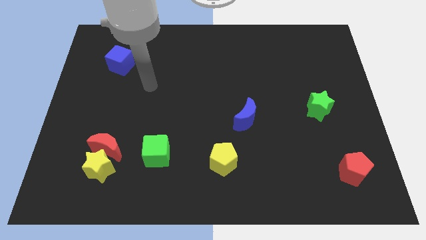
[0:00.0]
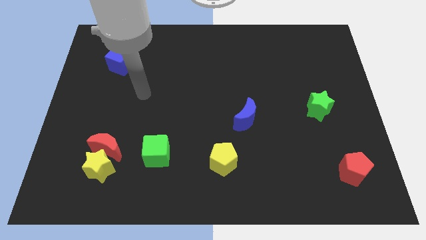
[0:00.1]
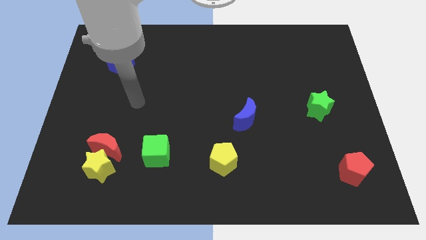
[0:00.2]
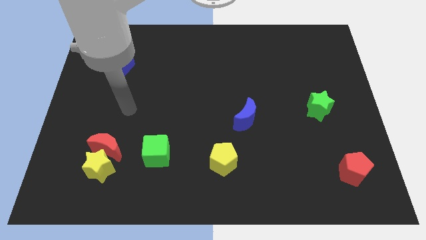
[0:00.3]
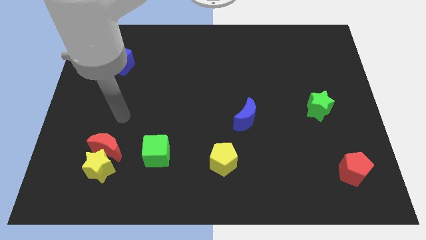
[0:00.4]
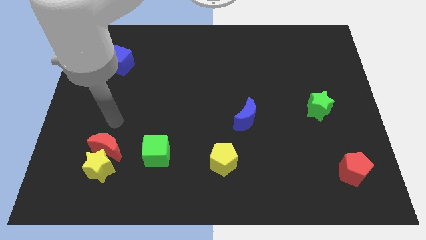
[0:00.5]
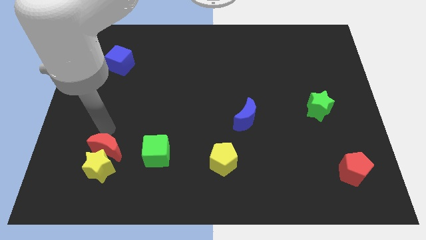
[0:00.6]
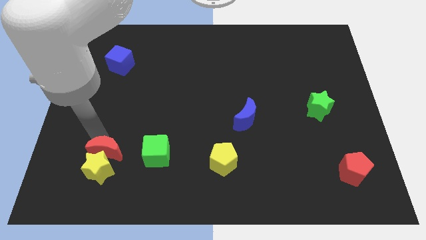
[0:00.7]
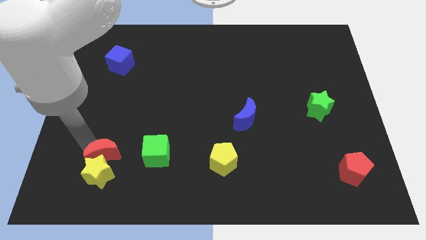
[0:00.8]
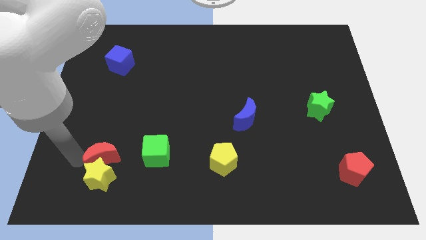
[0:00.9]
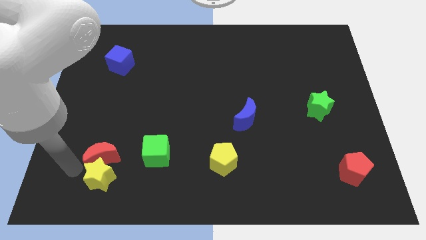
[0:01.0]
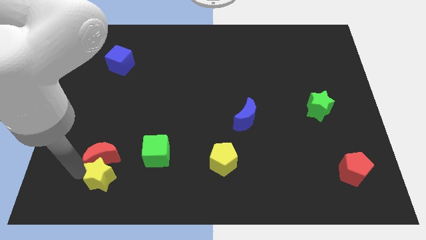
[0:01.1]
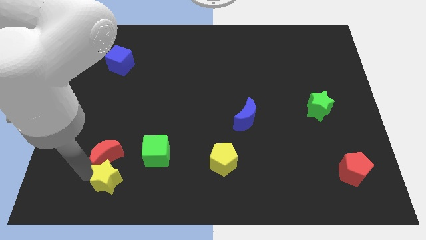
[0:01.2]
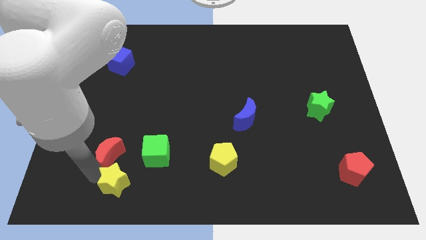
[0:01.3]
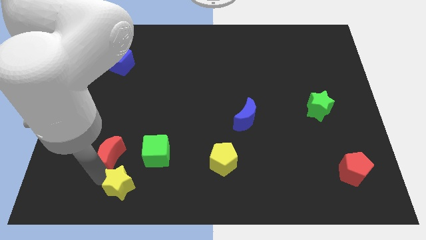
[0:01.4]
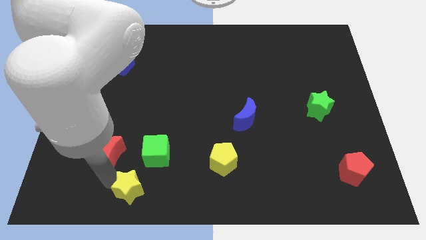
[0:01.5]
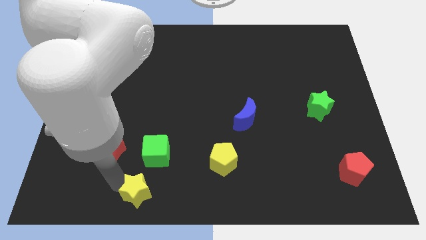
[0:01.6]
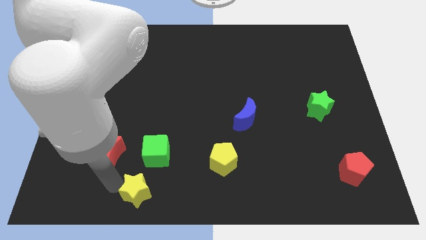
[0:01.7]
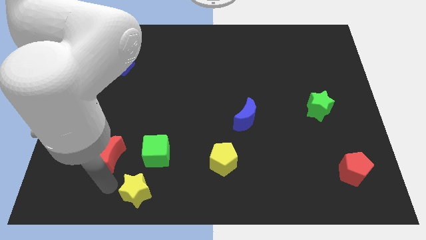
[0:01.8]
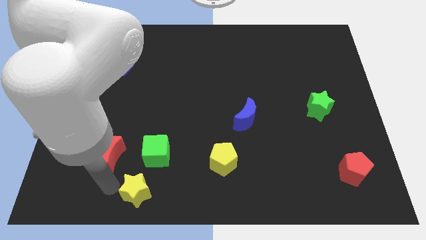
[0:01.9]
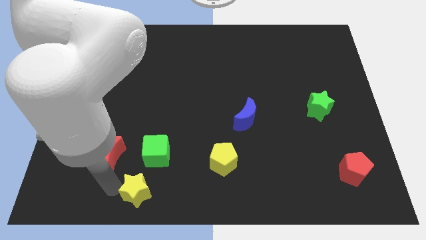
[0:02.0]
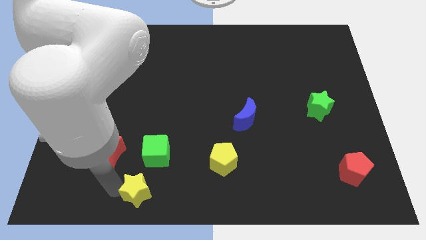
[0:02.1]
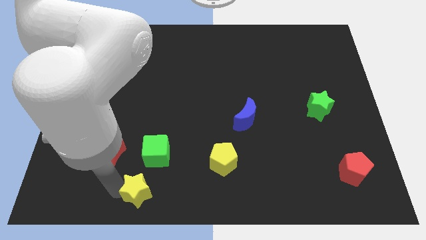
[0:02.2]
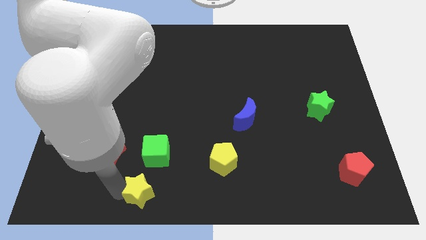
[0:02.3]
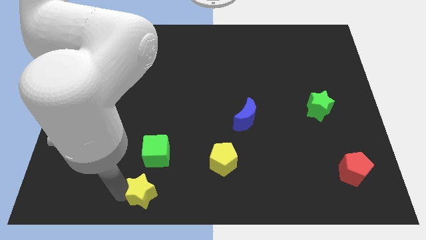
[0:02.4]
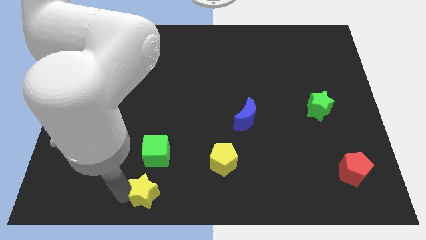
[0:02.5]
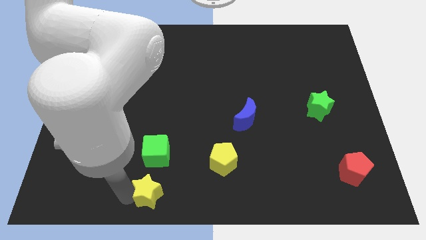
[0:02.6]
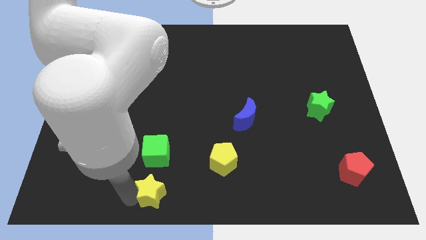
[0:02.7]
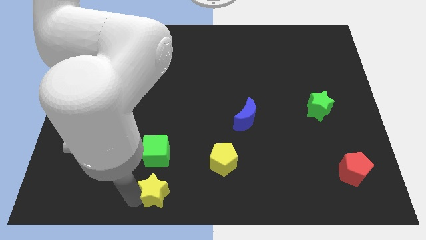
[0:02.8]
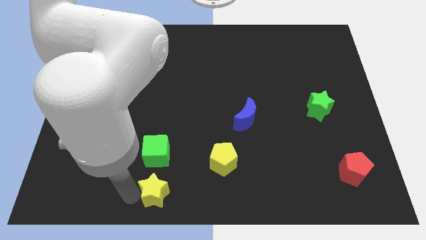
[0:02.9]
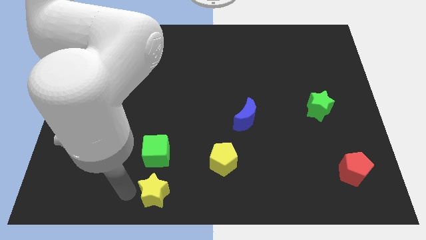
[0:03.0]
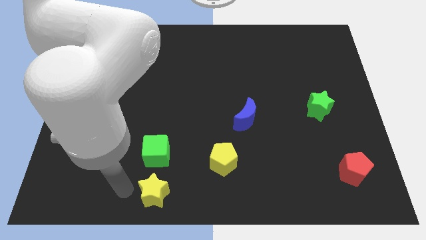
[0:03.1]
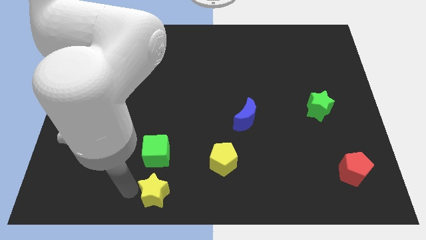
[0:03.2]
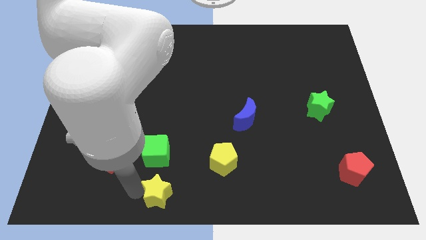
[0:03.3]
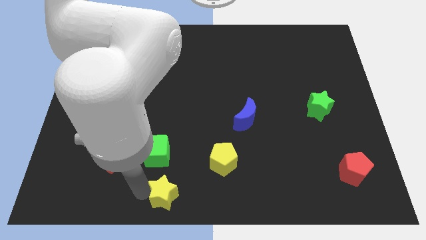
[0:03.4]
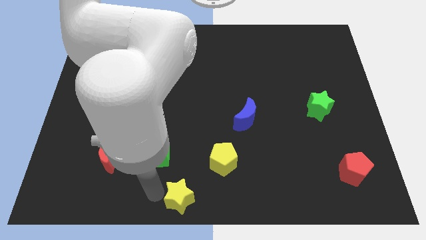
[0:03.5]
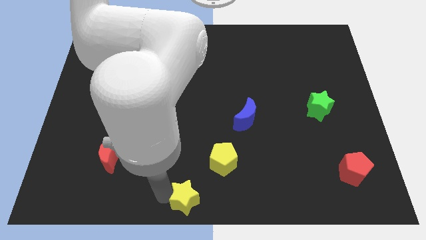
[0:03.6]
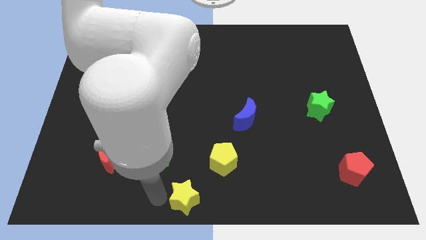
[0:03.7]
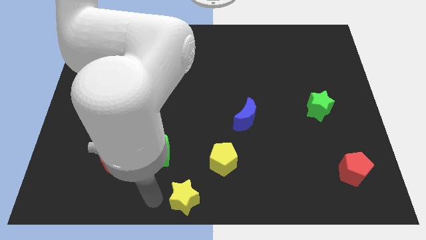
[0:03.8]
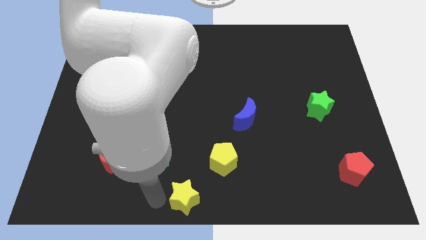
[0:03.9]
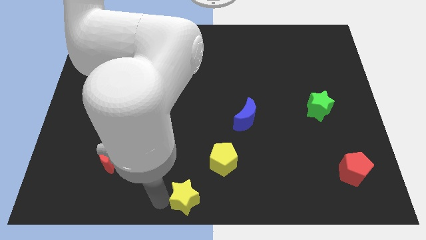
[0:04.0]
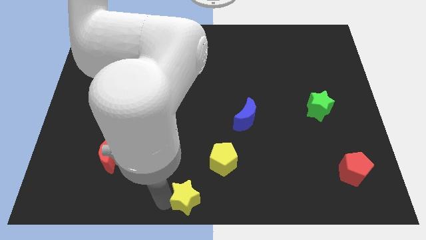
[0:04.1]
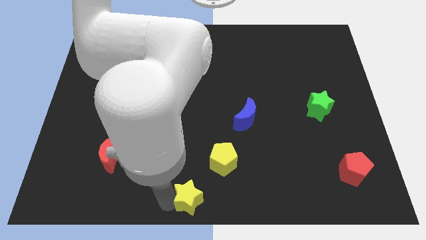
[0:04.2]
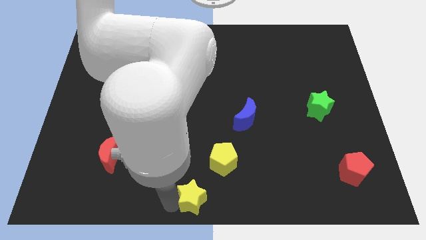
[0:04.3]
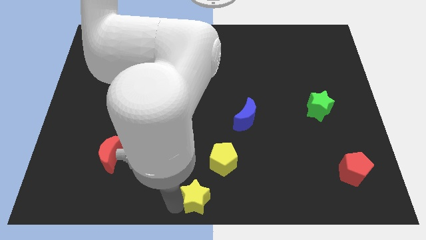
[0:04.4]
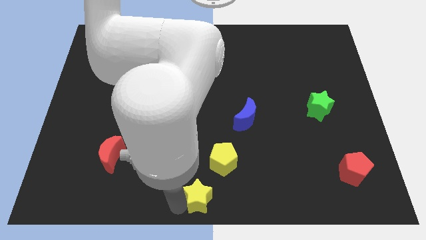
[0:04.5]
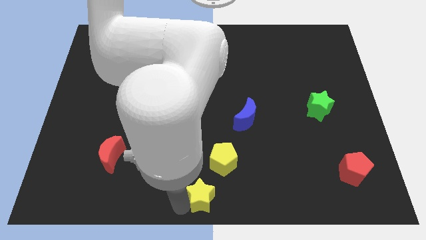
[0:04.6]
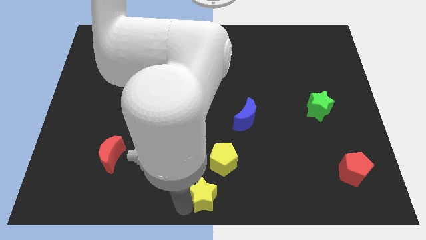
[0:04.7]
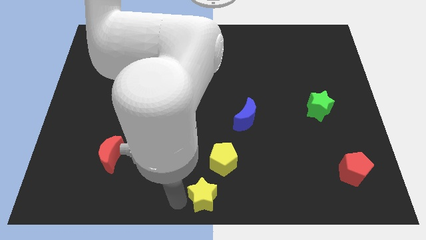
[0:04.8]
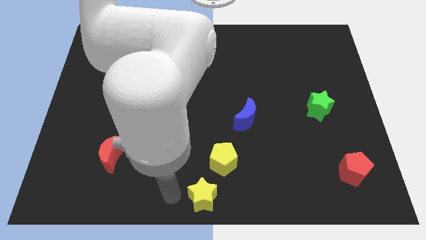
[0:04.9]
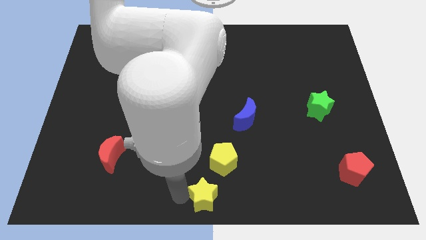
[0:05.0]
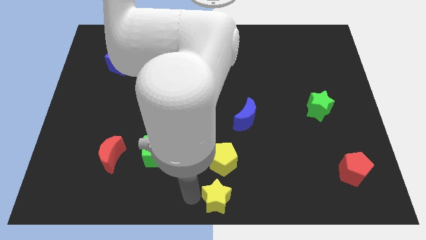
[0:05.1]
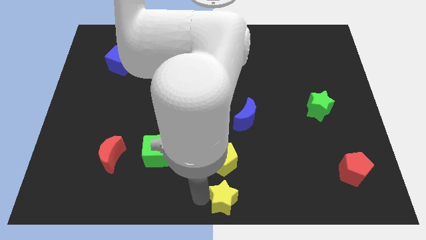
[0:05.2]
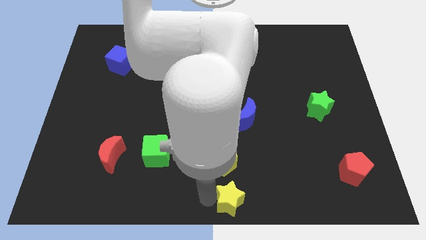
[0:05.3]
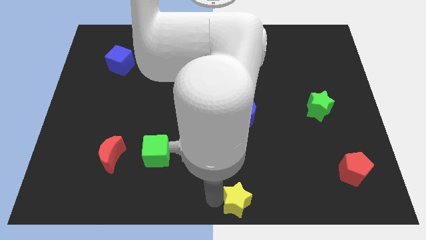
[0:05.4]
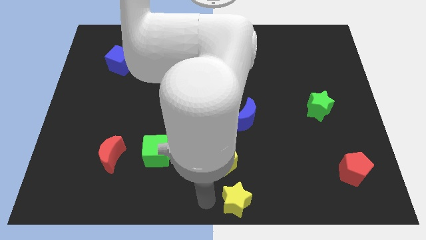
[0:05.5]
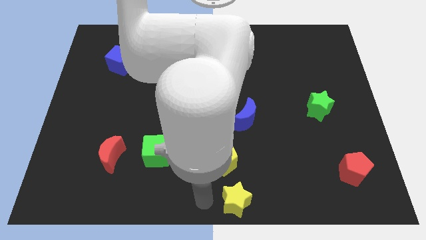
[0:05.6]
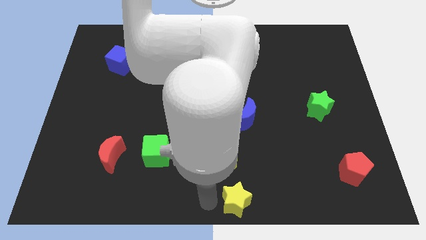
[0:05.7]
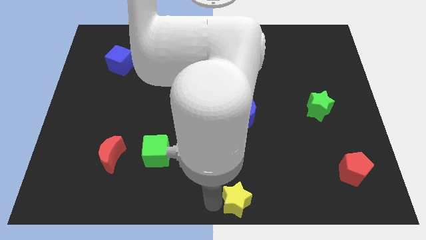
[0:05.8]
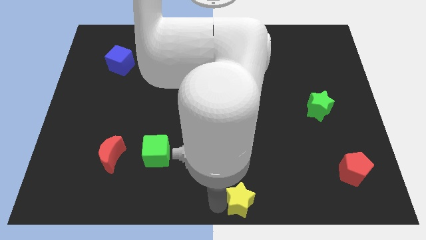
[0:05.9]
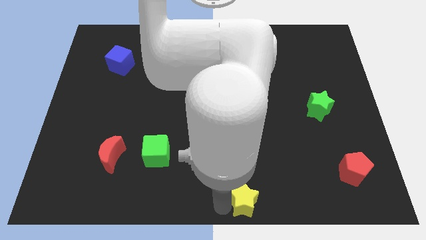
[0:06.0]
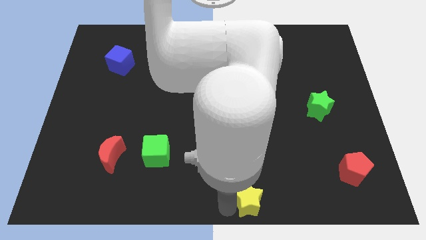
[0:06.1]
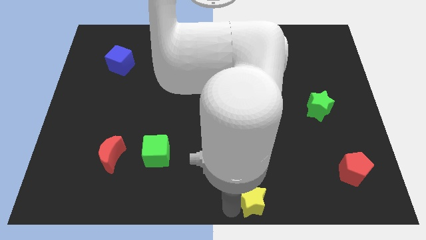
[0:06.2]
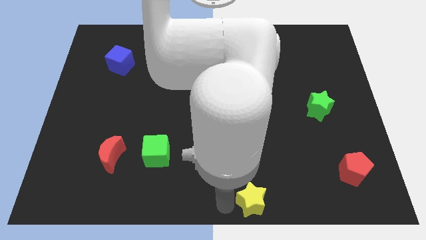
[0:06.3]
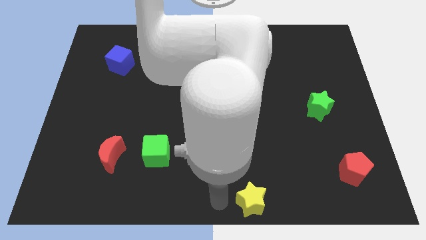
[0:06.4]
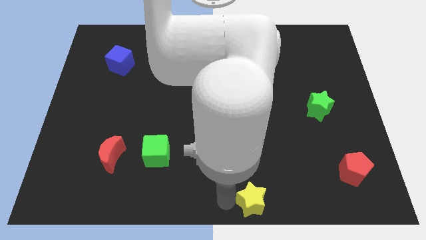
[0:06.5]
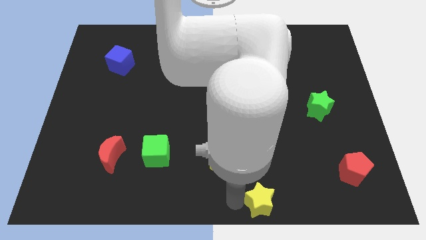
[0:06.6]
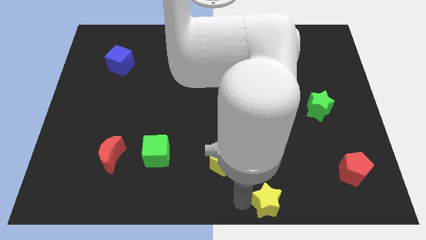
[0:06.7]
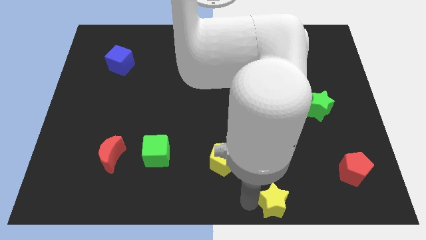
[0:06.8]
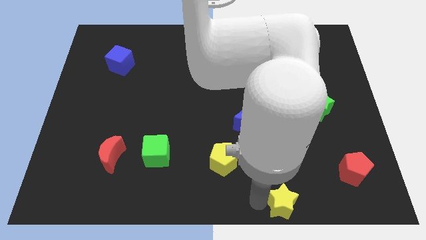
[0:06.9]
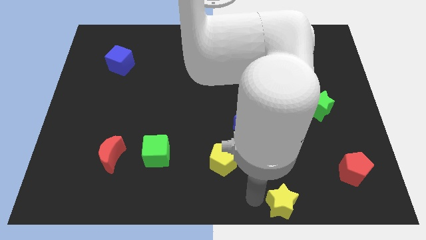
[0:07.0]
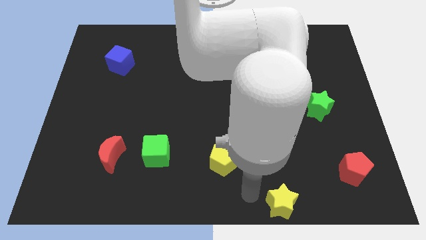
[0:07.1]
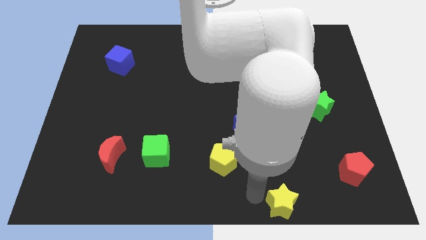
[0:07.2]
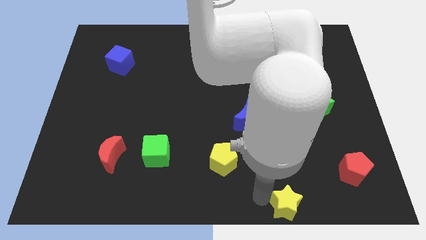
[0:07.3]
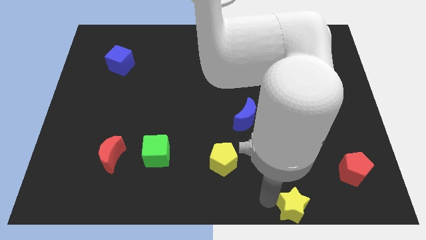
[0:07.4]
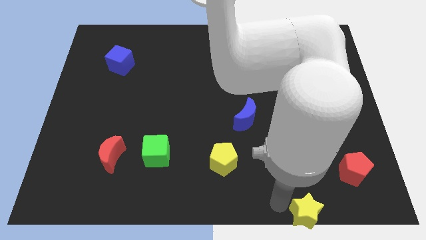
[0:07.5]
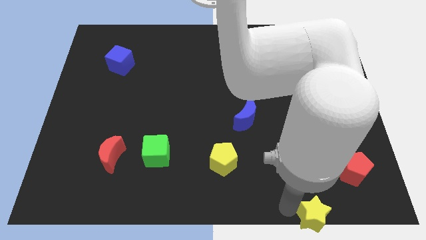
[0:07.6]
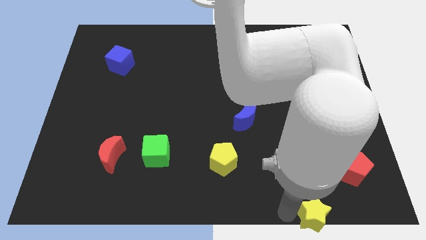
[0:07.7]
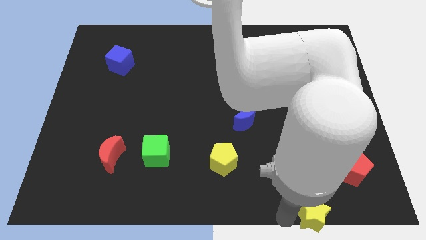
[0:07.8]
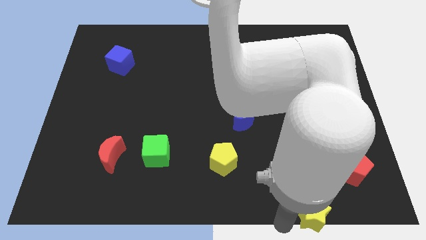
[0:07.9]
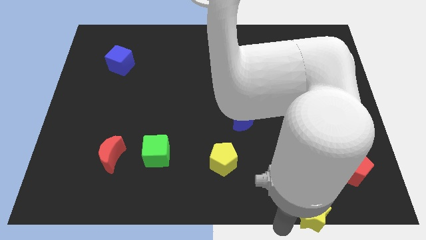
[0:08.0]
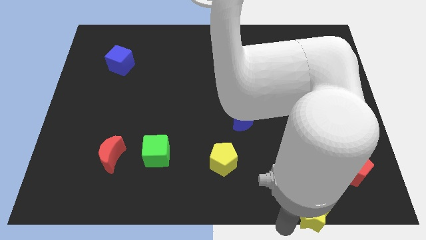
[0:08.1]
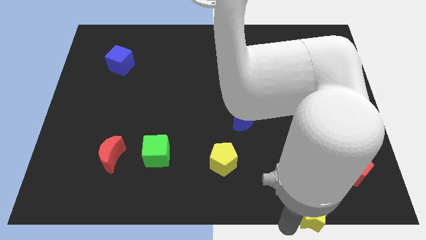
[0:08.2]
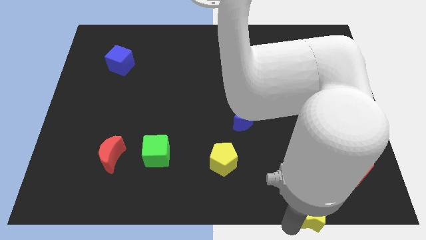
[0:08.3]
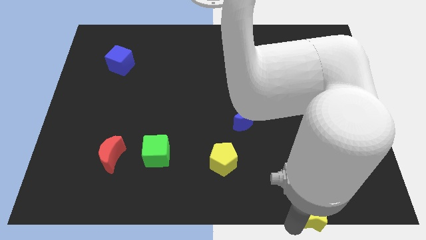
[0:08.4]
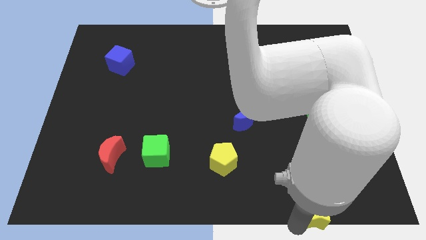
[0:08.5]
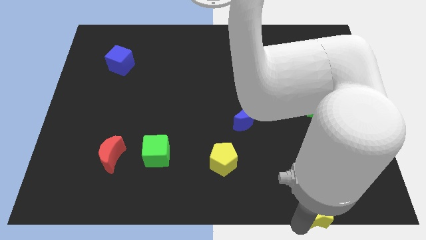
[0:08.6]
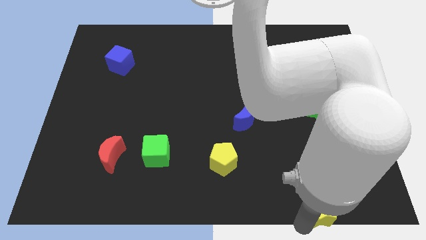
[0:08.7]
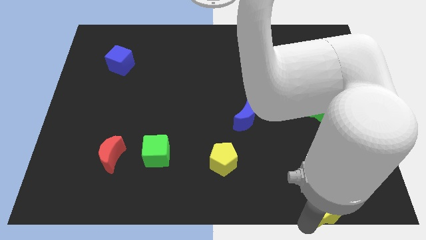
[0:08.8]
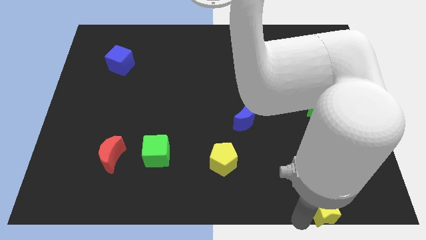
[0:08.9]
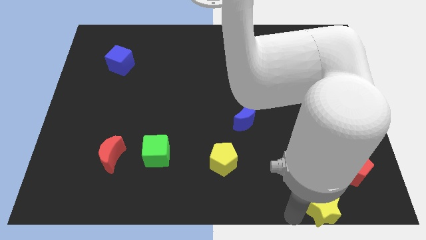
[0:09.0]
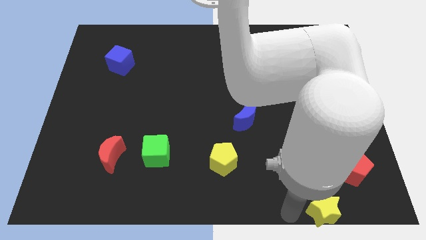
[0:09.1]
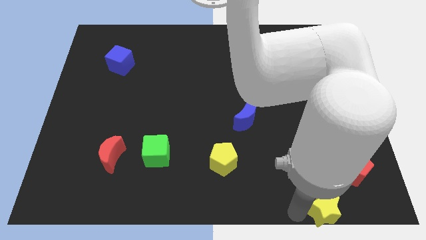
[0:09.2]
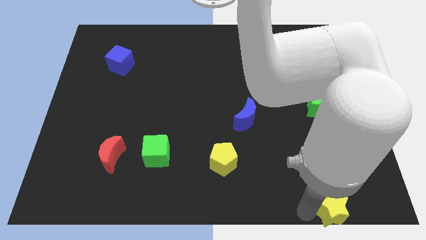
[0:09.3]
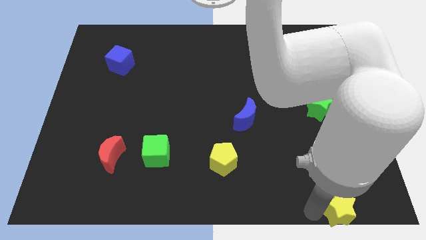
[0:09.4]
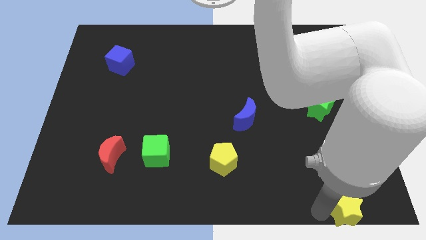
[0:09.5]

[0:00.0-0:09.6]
put the yellow star to the bottom right corner
